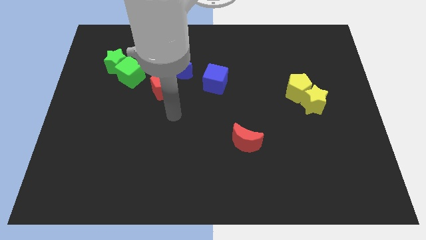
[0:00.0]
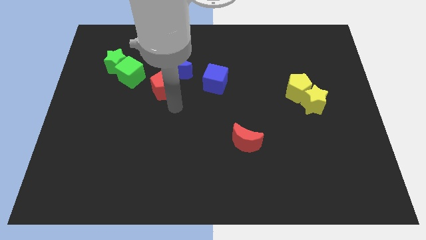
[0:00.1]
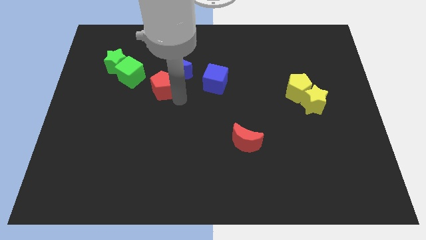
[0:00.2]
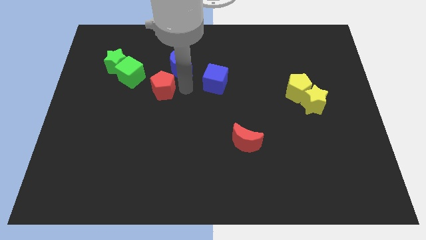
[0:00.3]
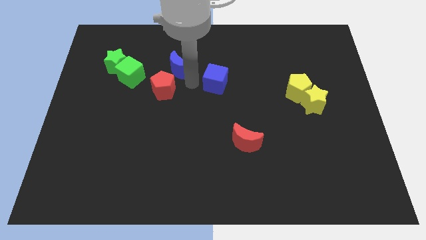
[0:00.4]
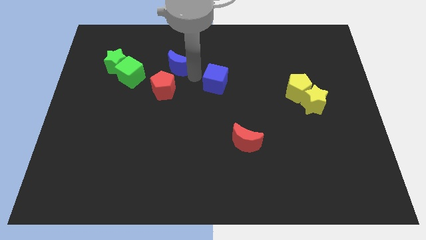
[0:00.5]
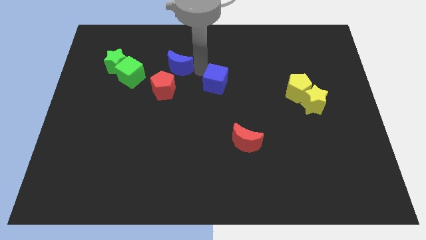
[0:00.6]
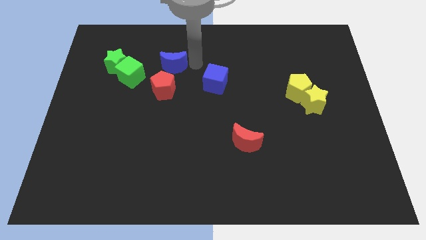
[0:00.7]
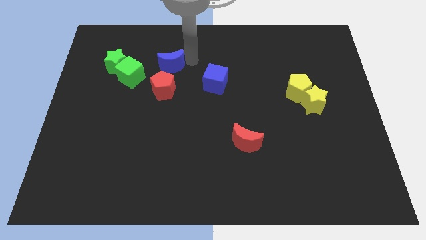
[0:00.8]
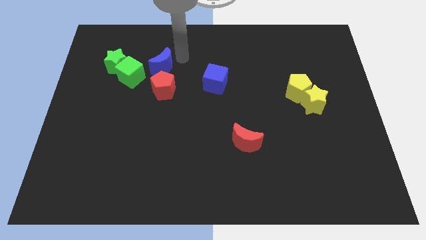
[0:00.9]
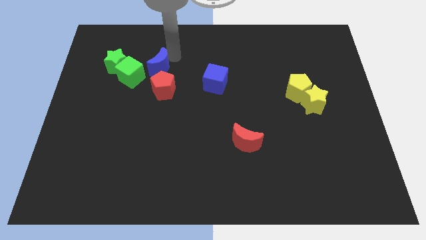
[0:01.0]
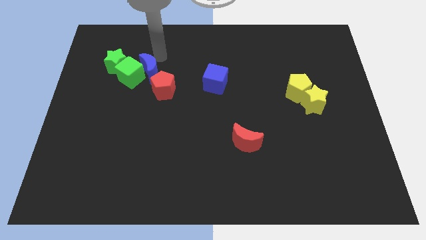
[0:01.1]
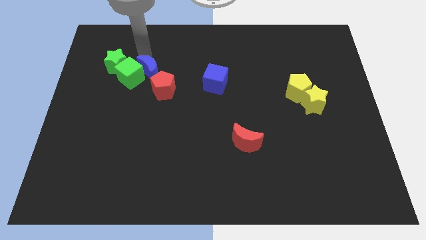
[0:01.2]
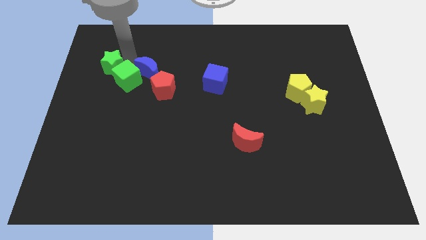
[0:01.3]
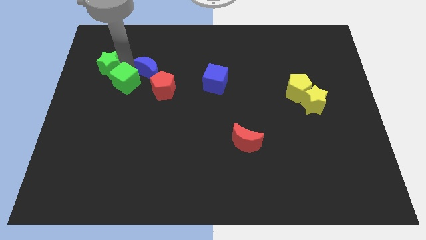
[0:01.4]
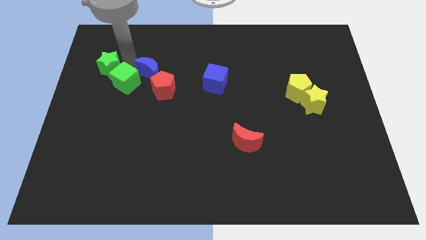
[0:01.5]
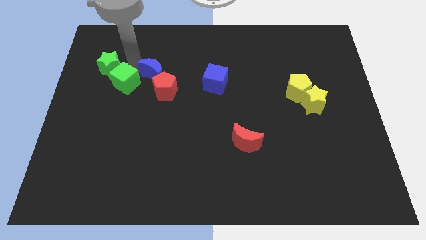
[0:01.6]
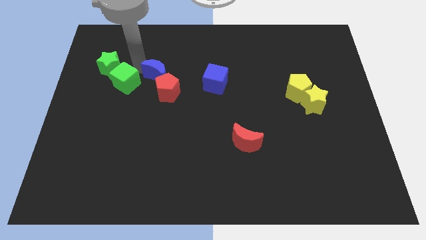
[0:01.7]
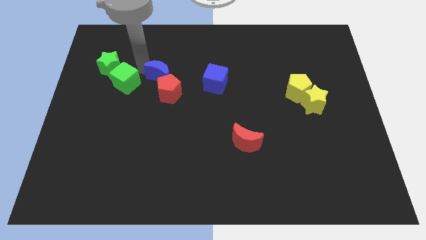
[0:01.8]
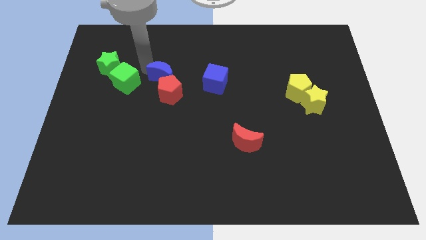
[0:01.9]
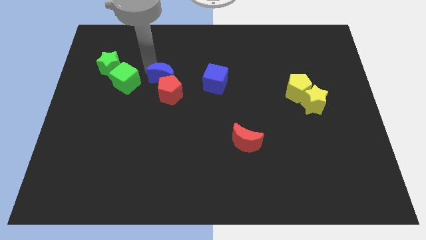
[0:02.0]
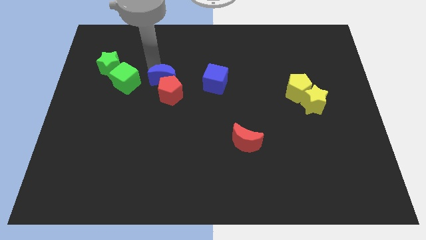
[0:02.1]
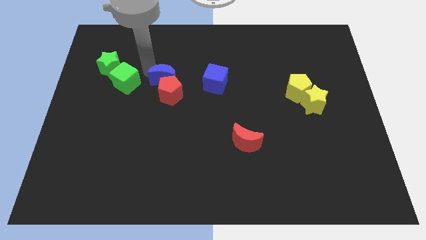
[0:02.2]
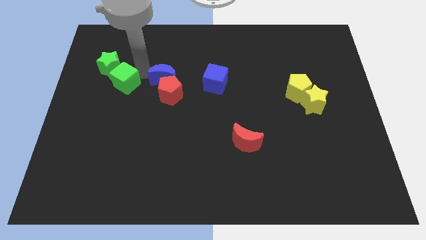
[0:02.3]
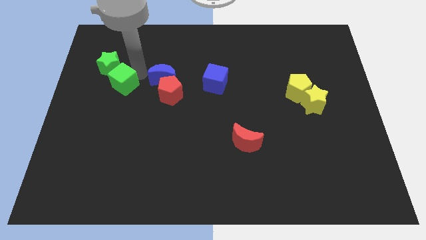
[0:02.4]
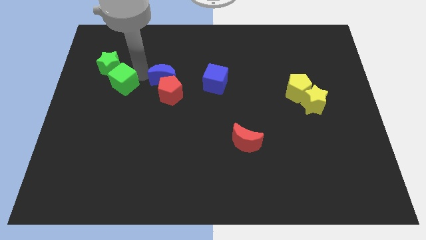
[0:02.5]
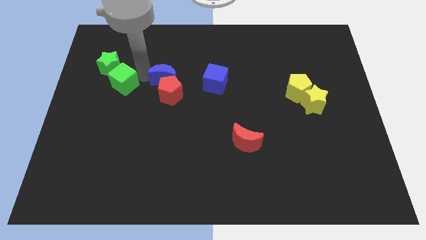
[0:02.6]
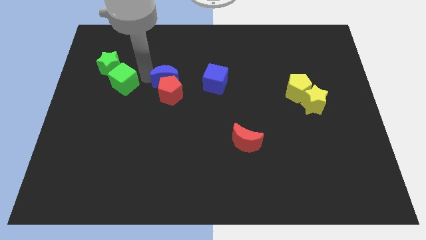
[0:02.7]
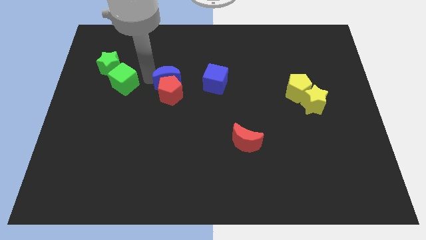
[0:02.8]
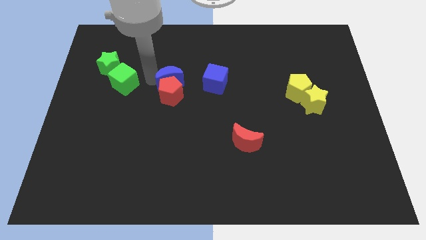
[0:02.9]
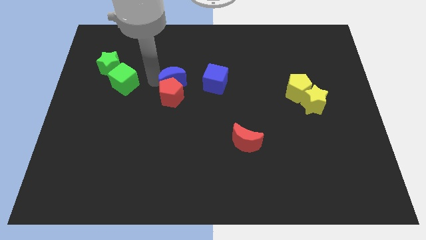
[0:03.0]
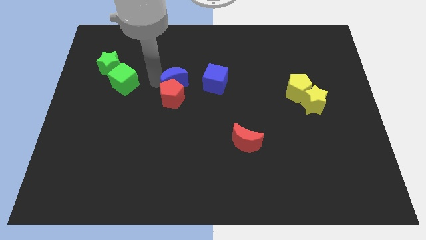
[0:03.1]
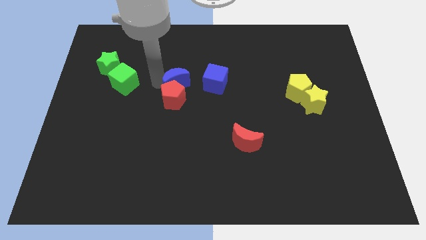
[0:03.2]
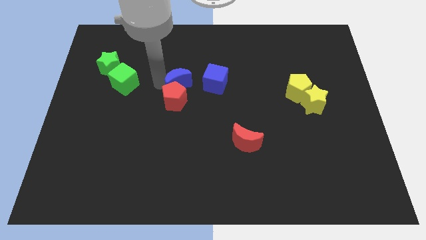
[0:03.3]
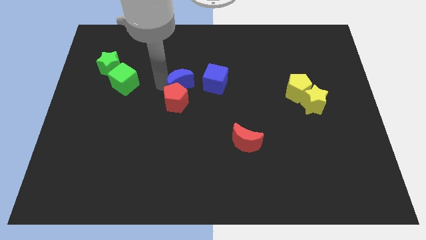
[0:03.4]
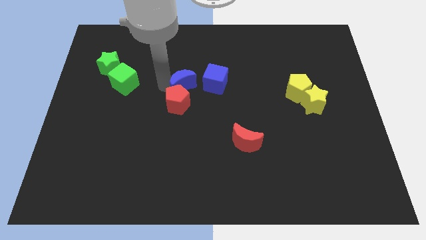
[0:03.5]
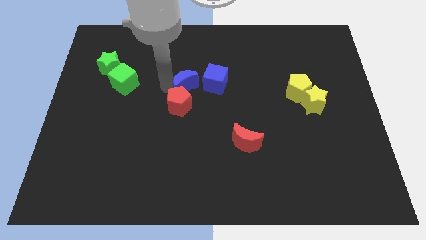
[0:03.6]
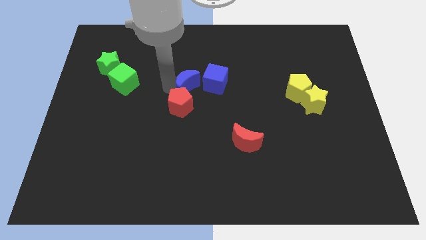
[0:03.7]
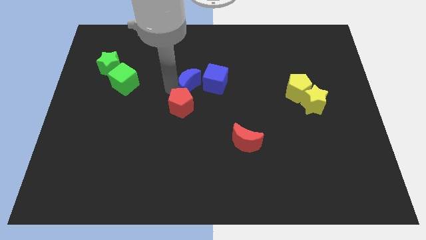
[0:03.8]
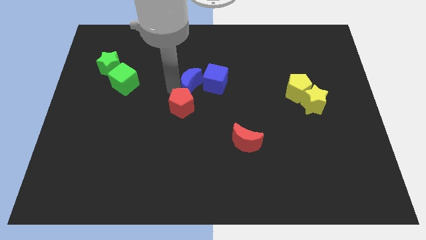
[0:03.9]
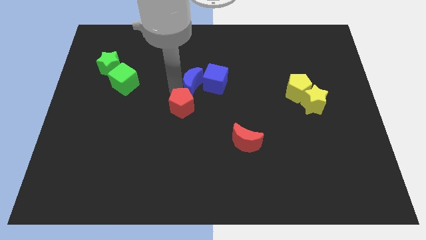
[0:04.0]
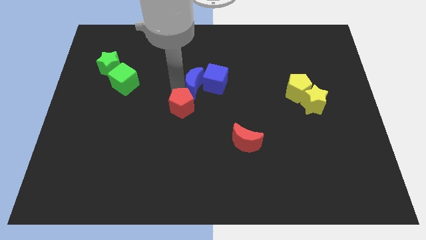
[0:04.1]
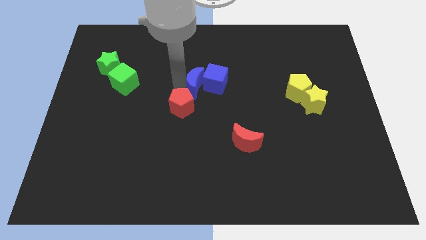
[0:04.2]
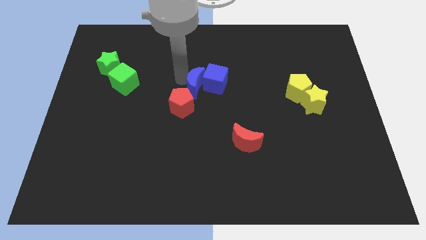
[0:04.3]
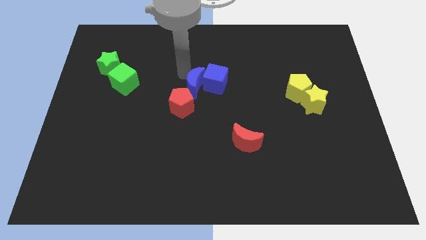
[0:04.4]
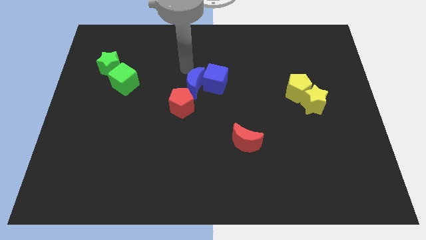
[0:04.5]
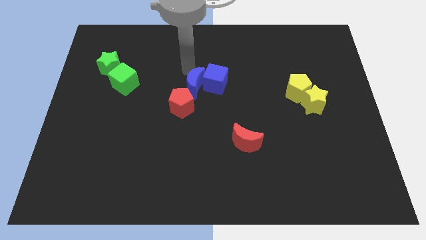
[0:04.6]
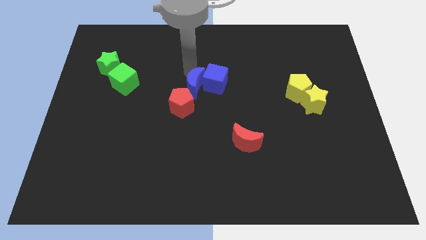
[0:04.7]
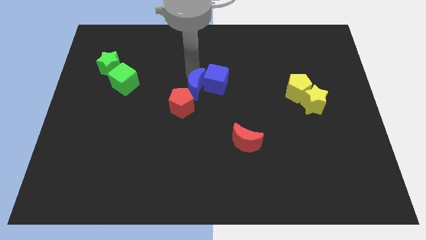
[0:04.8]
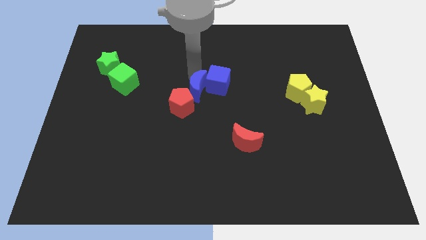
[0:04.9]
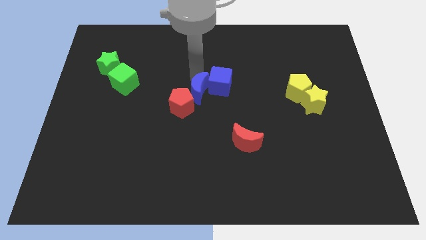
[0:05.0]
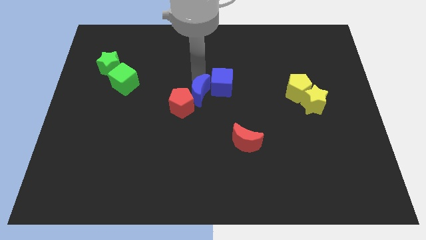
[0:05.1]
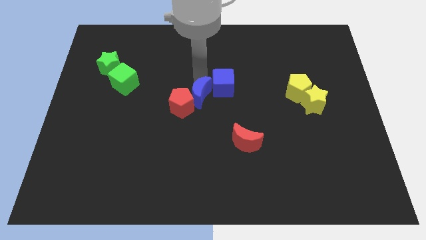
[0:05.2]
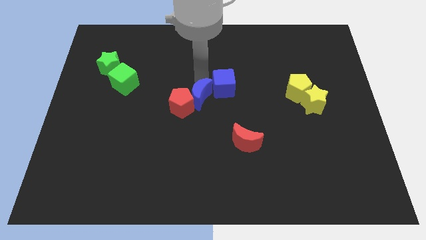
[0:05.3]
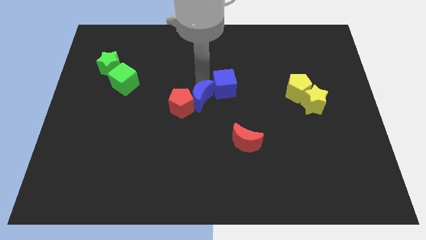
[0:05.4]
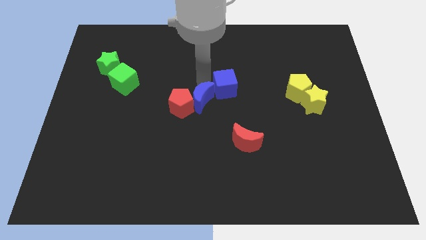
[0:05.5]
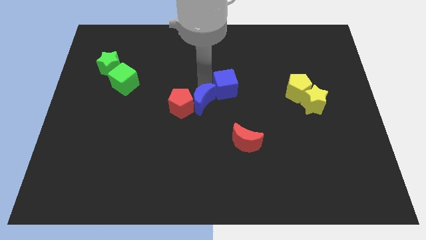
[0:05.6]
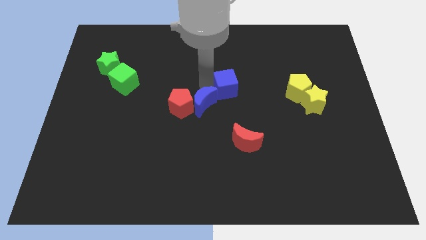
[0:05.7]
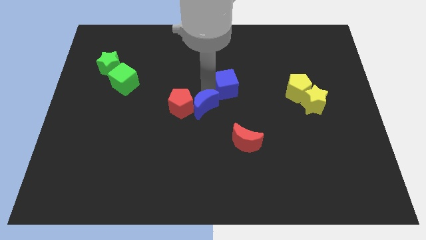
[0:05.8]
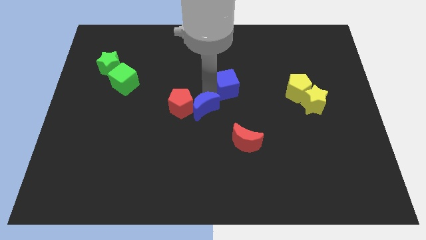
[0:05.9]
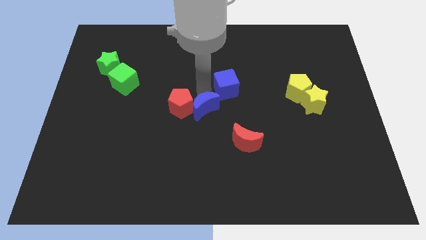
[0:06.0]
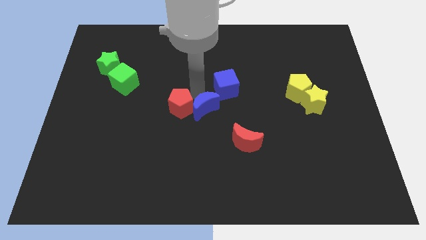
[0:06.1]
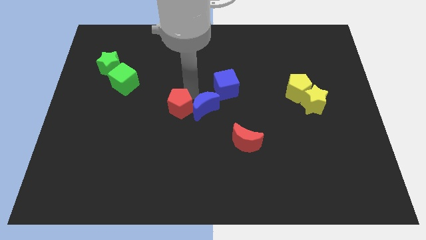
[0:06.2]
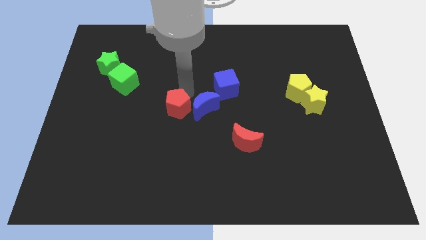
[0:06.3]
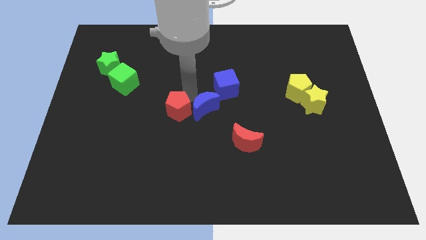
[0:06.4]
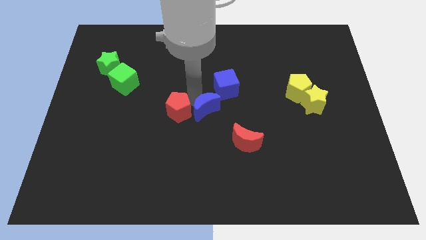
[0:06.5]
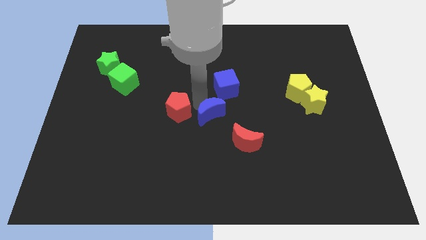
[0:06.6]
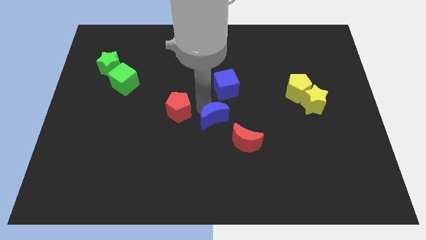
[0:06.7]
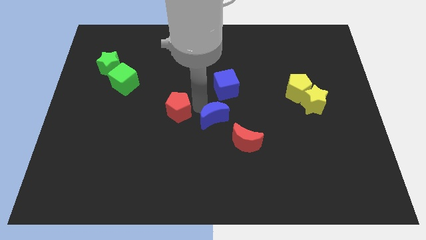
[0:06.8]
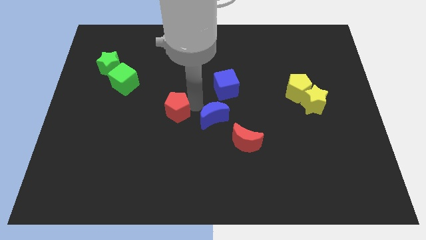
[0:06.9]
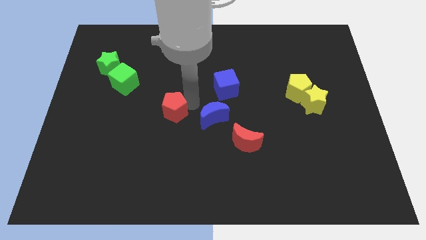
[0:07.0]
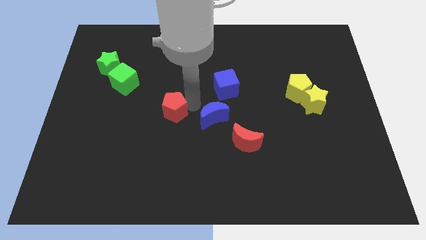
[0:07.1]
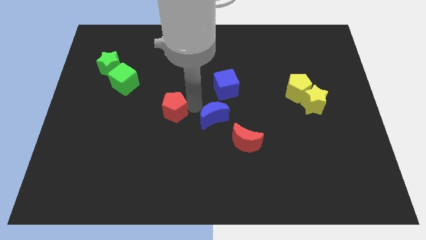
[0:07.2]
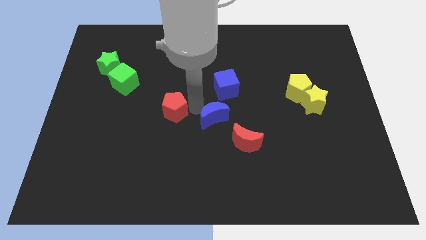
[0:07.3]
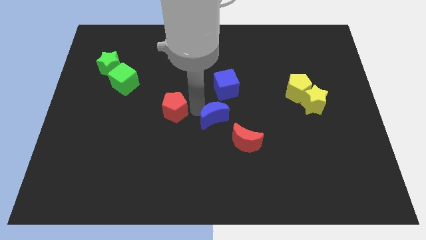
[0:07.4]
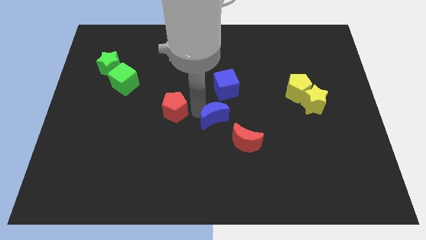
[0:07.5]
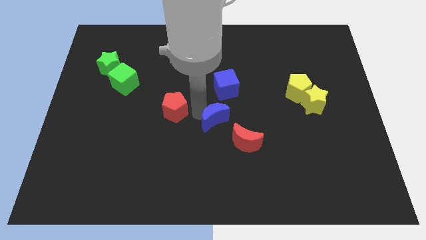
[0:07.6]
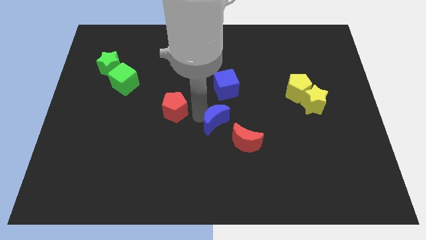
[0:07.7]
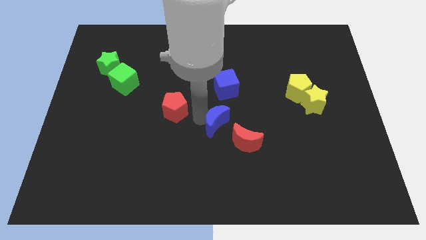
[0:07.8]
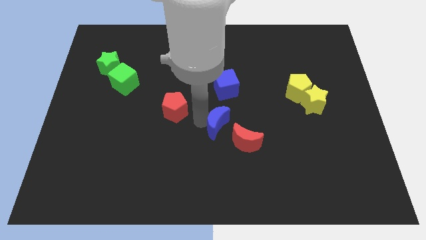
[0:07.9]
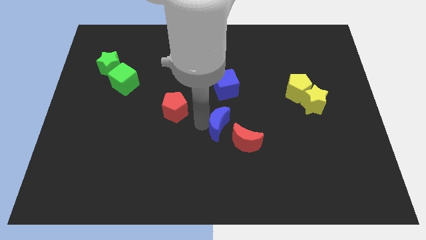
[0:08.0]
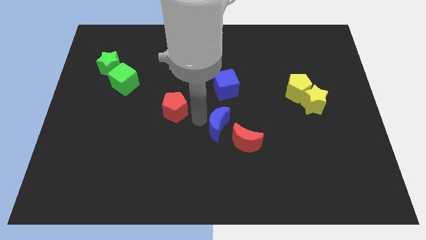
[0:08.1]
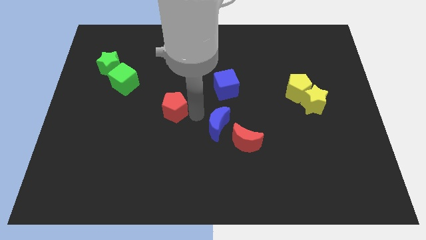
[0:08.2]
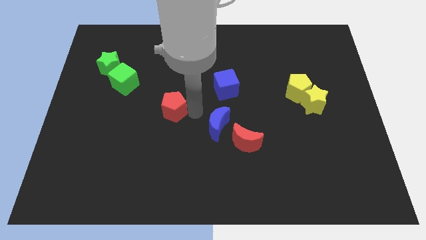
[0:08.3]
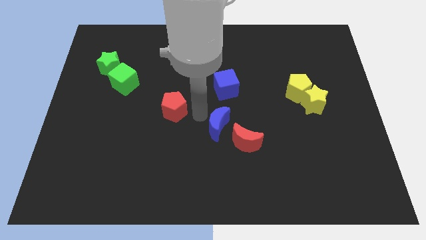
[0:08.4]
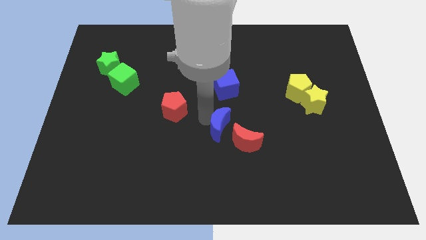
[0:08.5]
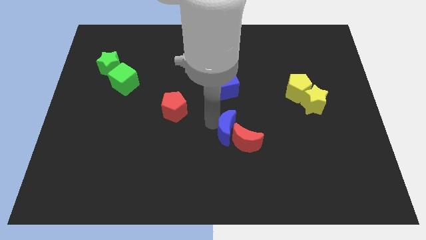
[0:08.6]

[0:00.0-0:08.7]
put the blue moon next to the red moon
